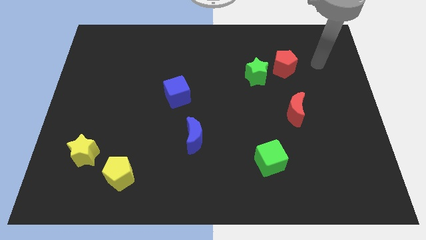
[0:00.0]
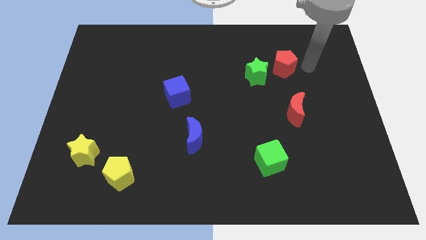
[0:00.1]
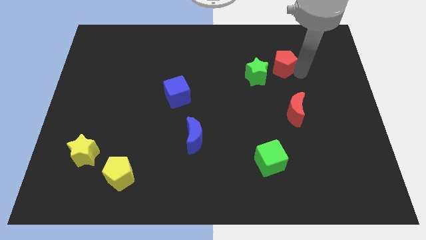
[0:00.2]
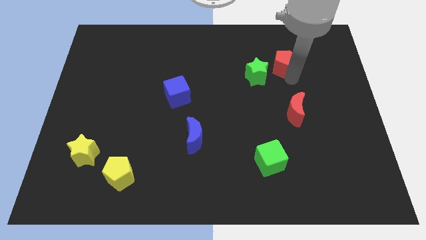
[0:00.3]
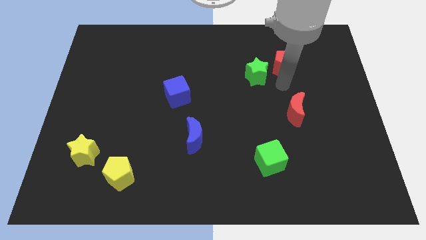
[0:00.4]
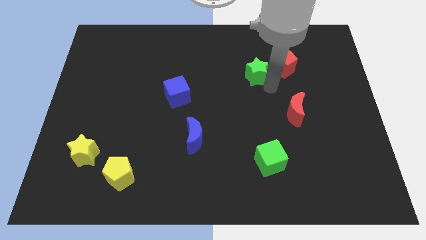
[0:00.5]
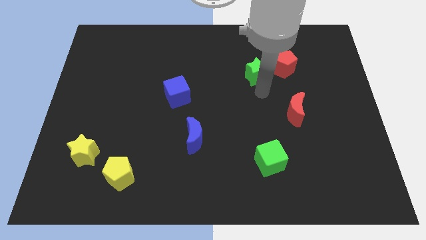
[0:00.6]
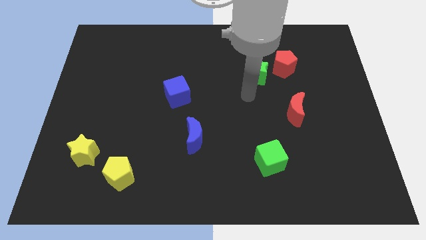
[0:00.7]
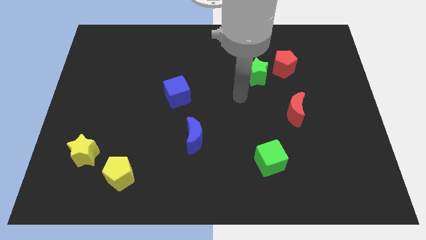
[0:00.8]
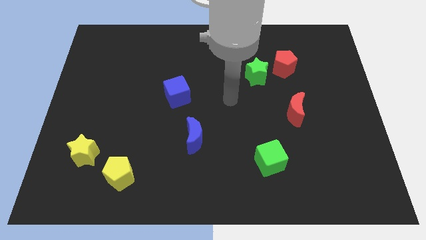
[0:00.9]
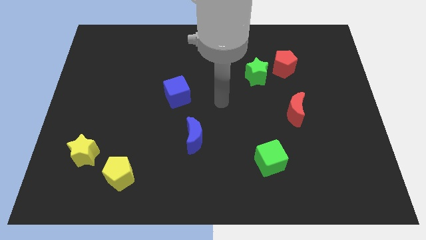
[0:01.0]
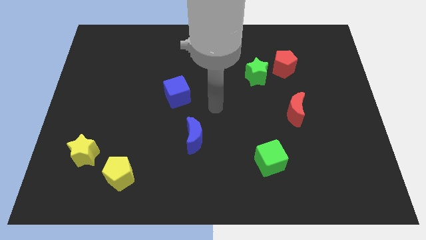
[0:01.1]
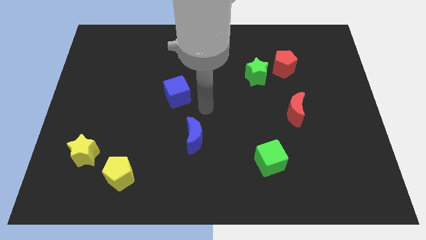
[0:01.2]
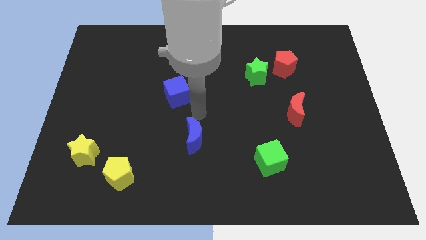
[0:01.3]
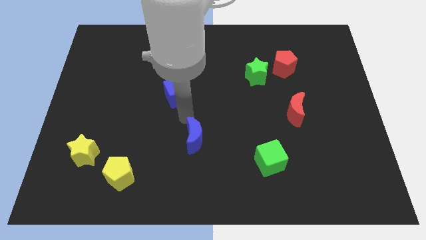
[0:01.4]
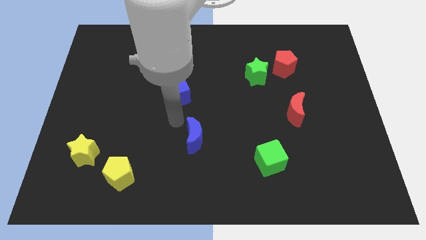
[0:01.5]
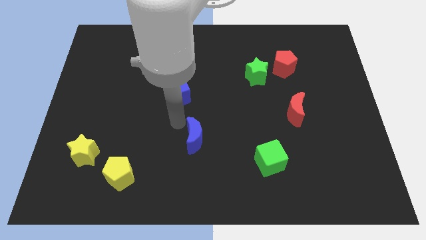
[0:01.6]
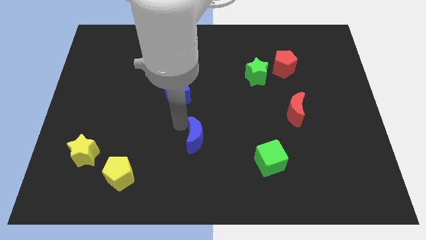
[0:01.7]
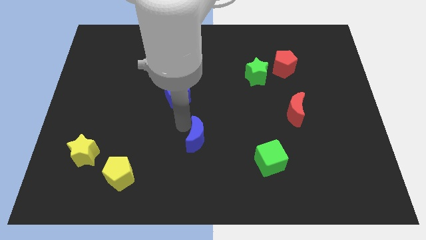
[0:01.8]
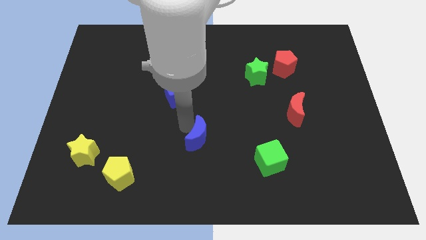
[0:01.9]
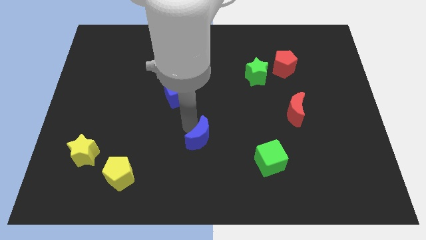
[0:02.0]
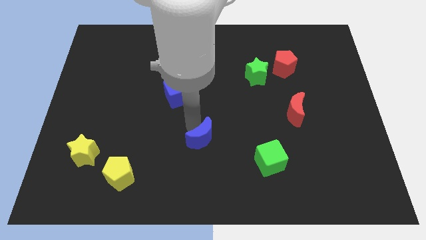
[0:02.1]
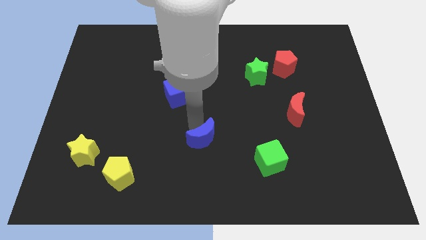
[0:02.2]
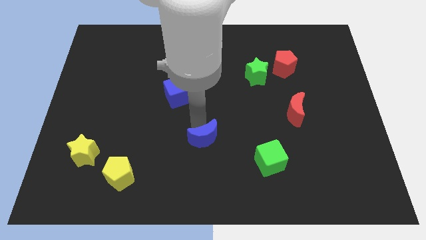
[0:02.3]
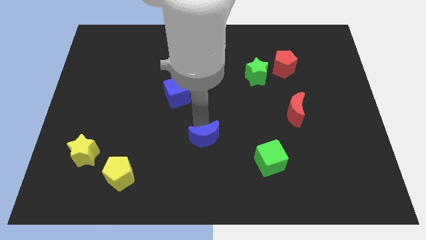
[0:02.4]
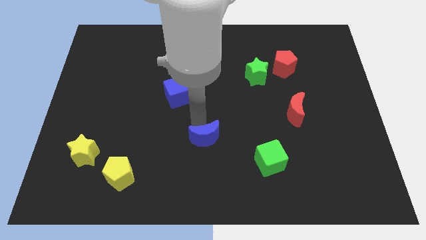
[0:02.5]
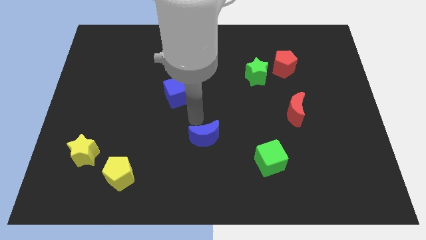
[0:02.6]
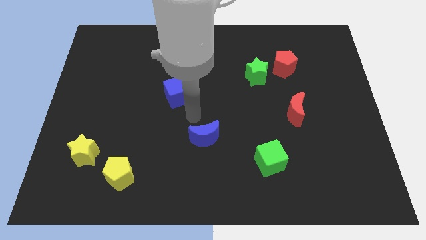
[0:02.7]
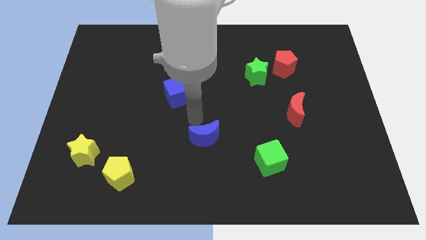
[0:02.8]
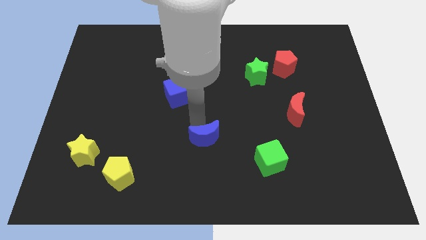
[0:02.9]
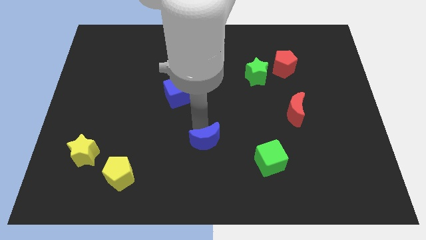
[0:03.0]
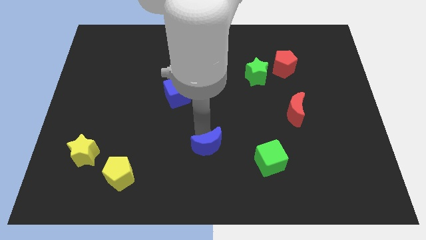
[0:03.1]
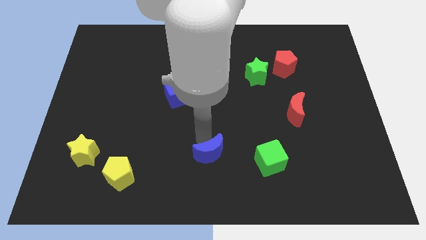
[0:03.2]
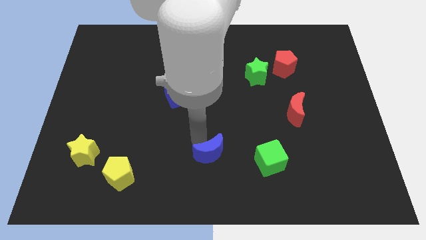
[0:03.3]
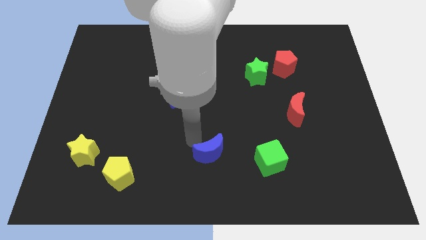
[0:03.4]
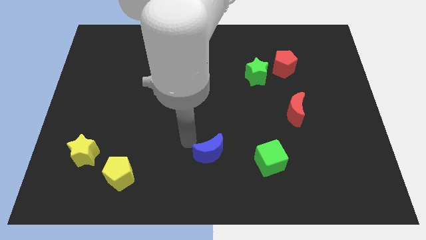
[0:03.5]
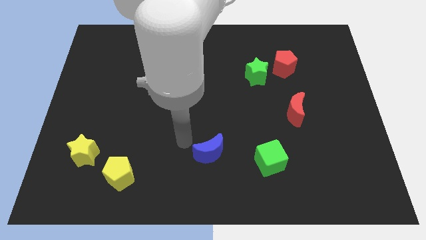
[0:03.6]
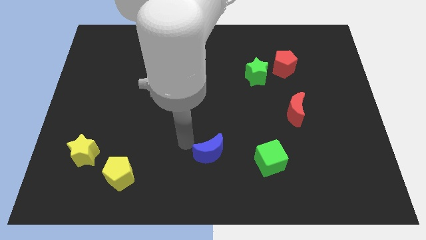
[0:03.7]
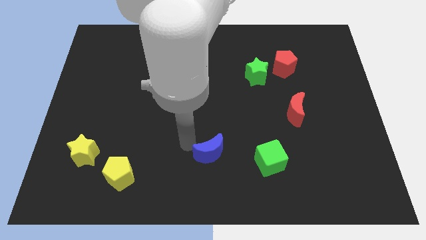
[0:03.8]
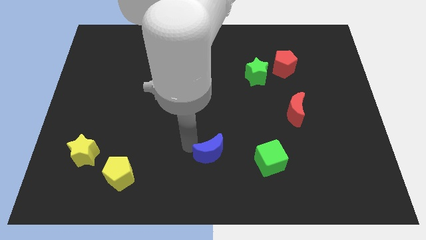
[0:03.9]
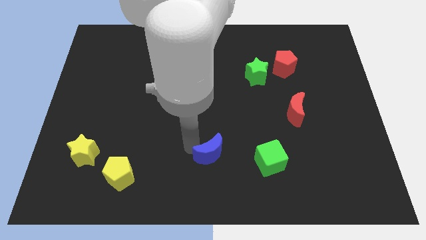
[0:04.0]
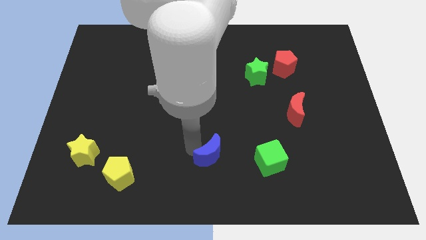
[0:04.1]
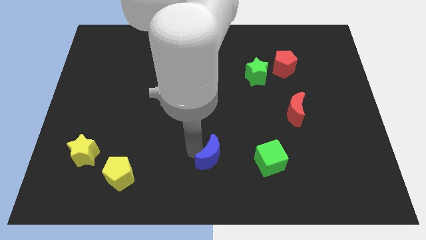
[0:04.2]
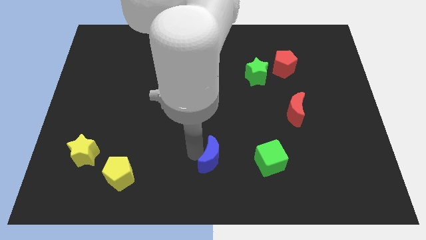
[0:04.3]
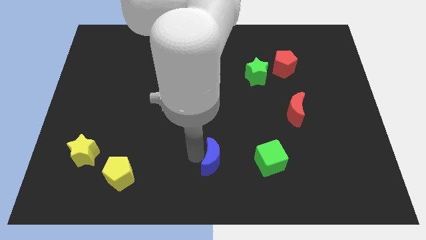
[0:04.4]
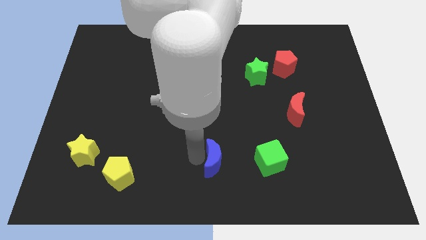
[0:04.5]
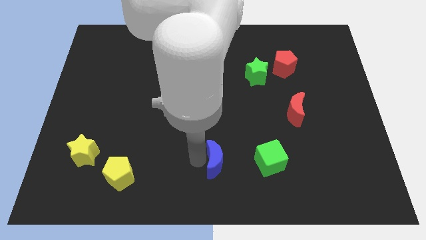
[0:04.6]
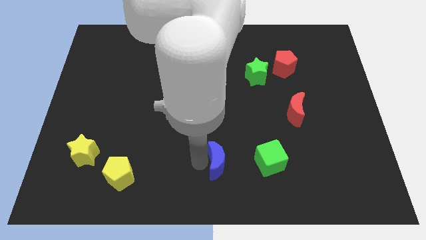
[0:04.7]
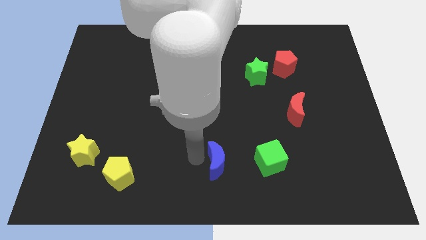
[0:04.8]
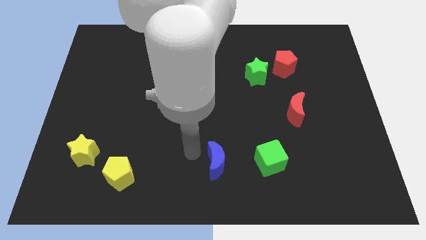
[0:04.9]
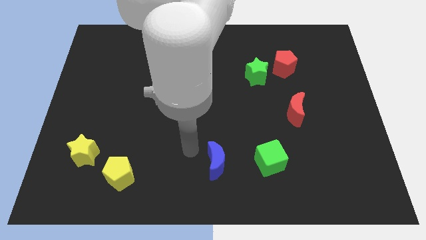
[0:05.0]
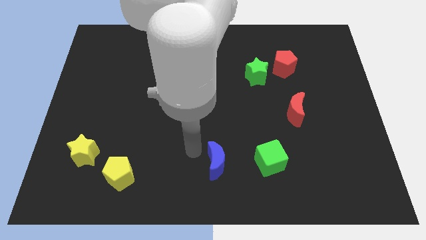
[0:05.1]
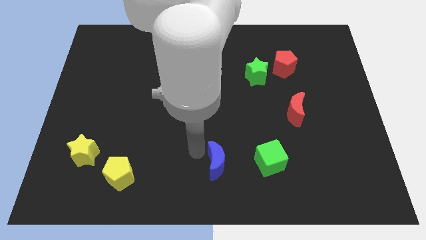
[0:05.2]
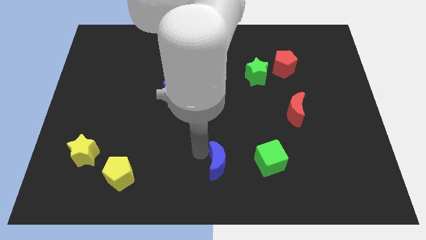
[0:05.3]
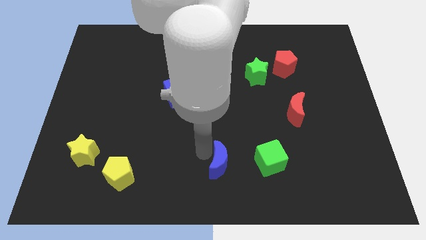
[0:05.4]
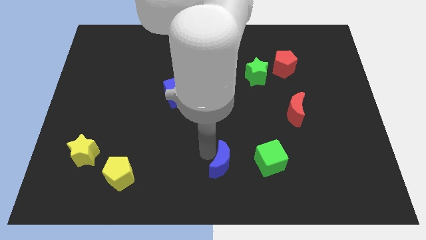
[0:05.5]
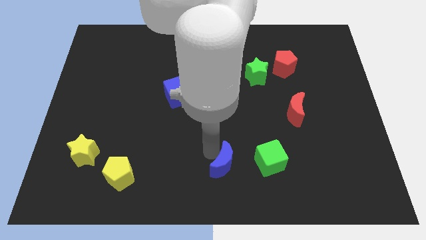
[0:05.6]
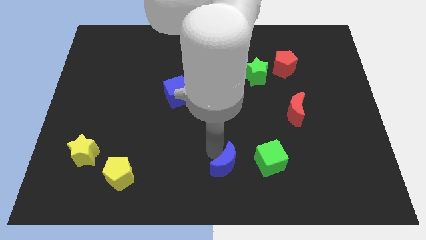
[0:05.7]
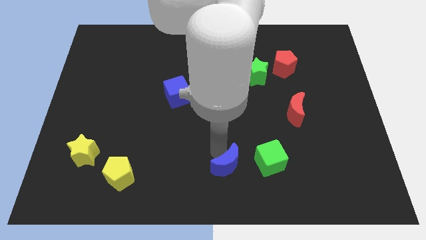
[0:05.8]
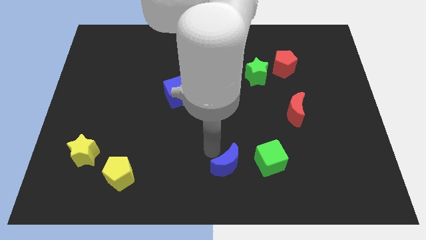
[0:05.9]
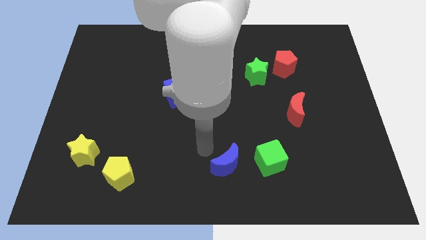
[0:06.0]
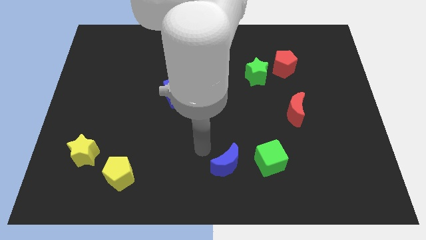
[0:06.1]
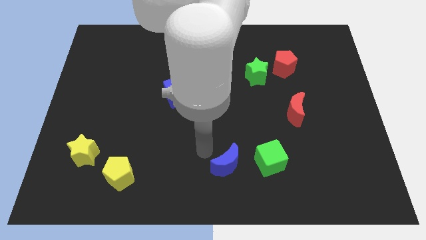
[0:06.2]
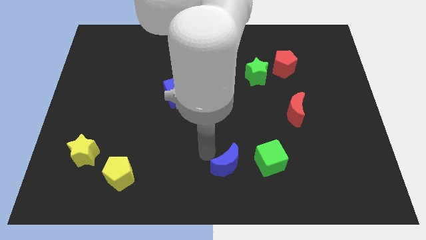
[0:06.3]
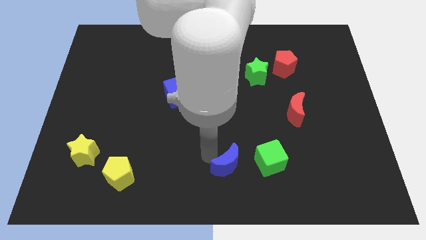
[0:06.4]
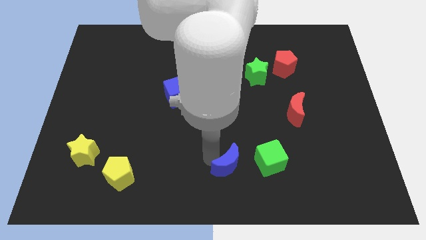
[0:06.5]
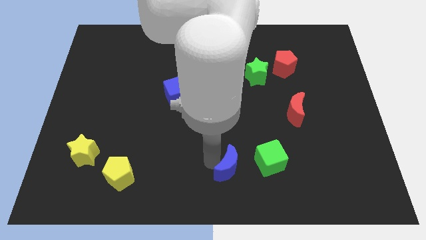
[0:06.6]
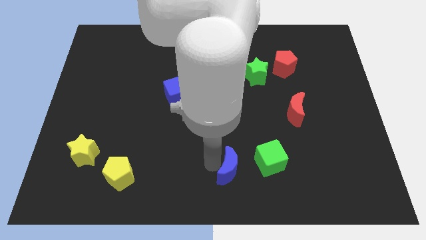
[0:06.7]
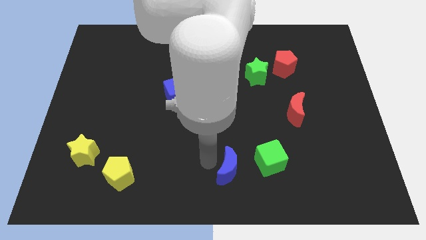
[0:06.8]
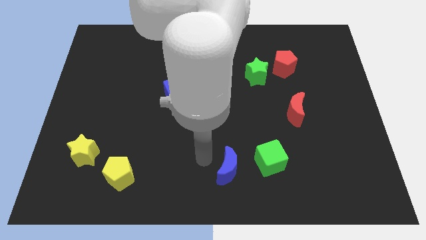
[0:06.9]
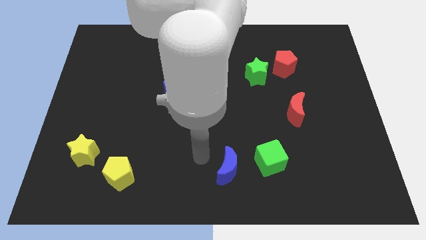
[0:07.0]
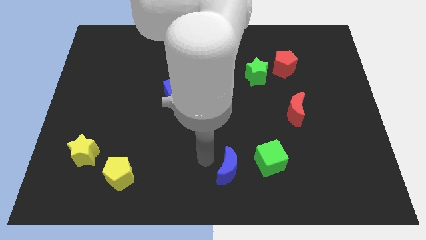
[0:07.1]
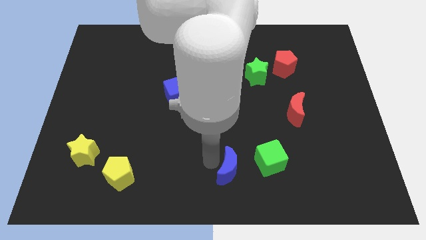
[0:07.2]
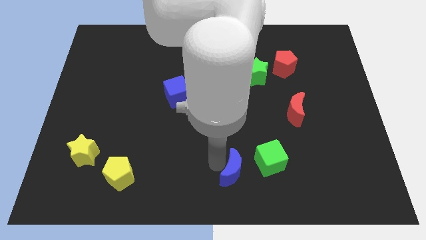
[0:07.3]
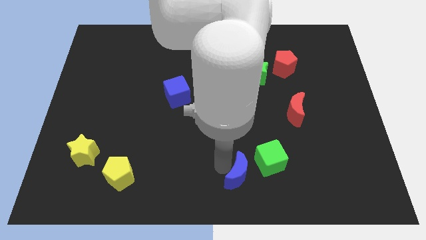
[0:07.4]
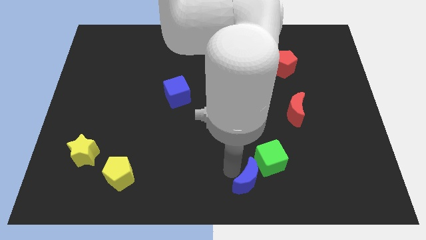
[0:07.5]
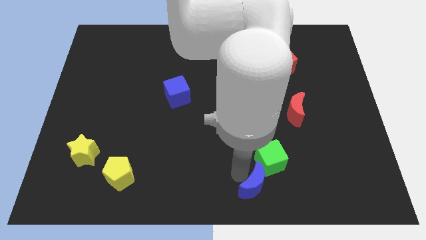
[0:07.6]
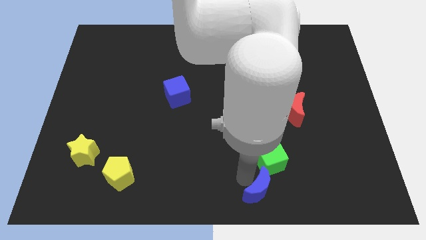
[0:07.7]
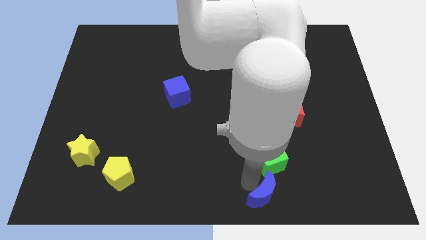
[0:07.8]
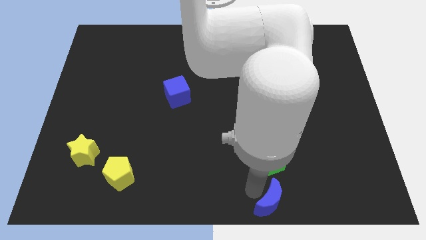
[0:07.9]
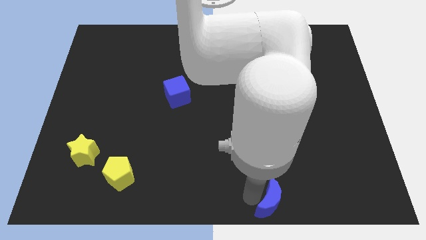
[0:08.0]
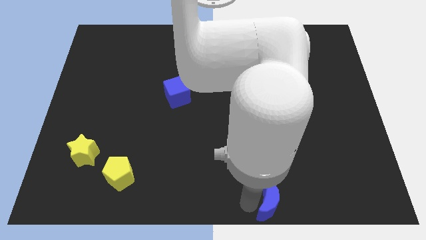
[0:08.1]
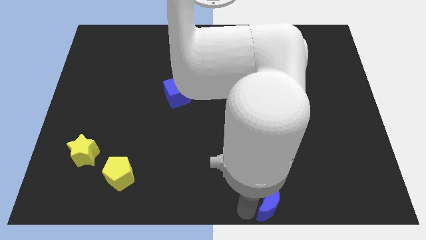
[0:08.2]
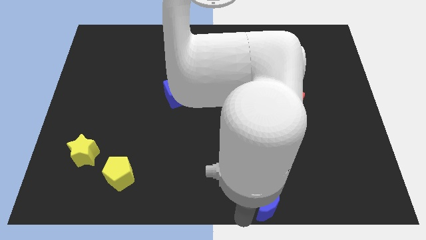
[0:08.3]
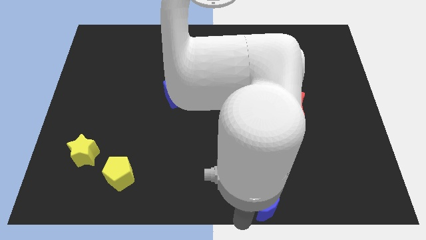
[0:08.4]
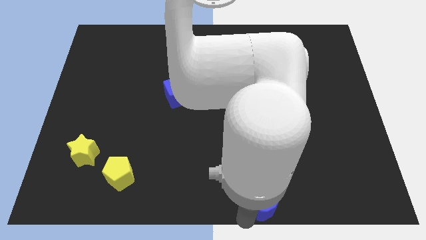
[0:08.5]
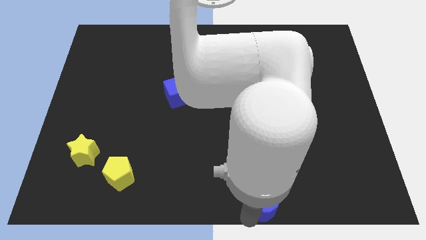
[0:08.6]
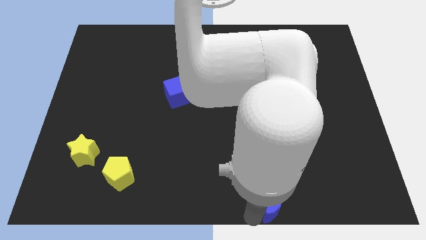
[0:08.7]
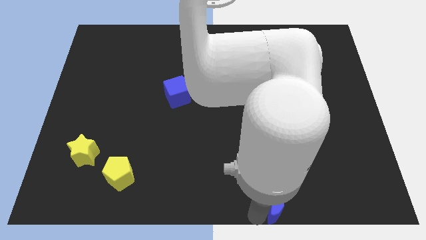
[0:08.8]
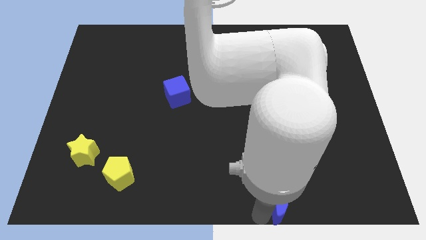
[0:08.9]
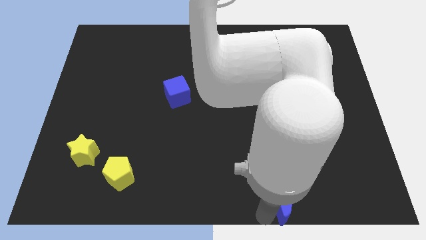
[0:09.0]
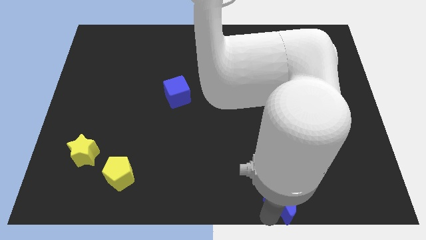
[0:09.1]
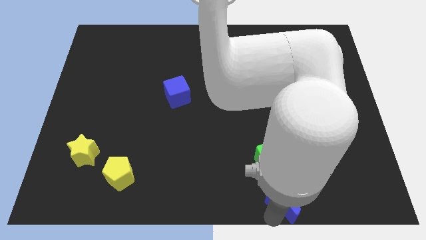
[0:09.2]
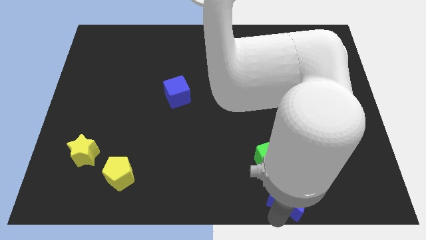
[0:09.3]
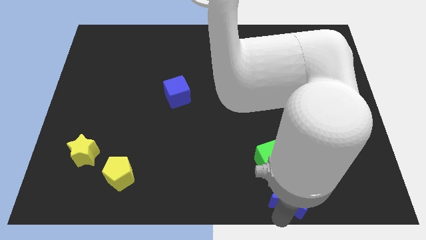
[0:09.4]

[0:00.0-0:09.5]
slide the blue moon diagonally down and to the right of the green cube
